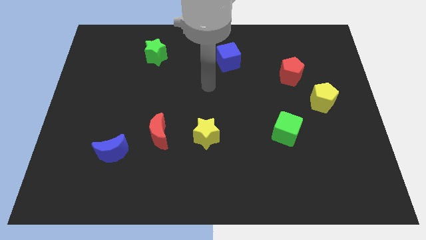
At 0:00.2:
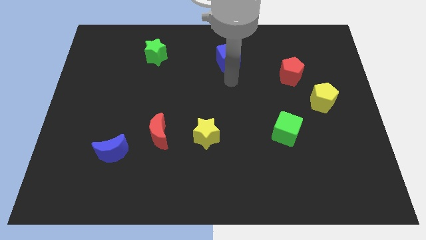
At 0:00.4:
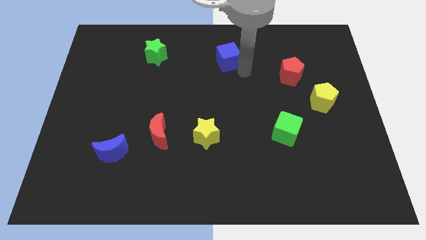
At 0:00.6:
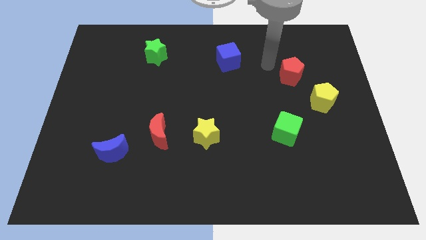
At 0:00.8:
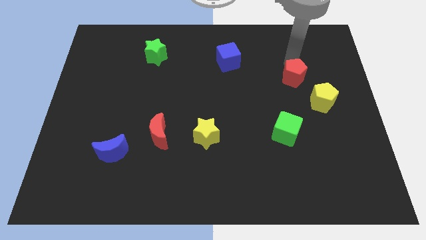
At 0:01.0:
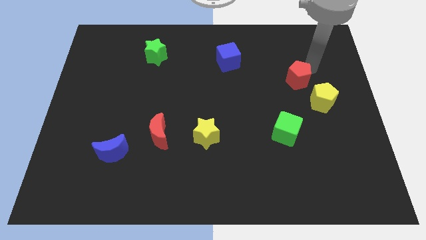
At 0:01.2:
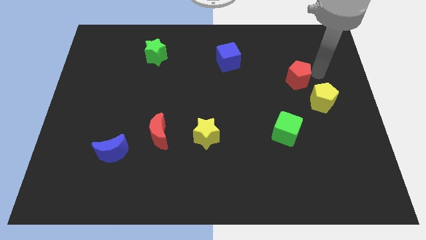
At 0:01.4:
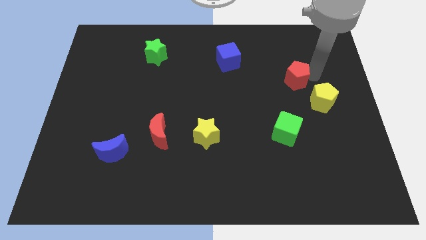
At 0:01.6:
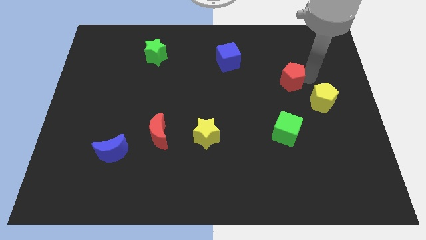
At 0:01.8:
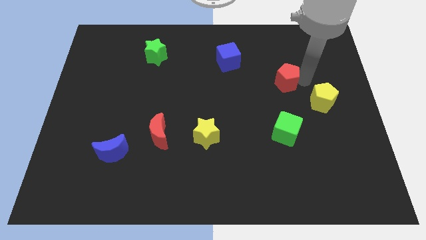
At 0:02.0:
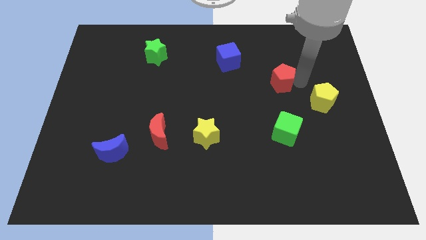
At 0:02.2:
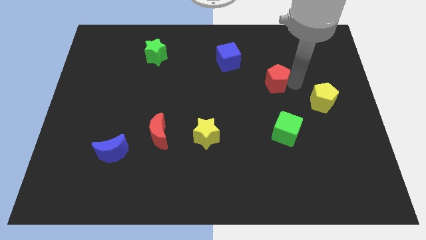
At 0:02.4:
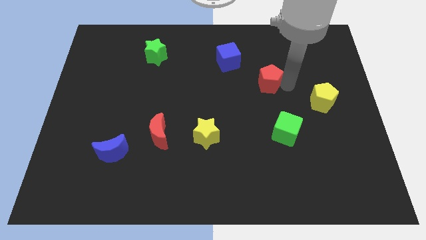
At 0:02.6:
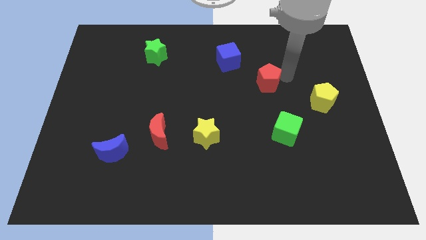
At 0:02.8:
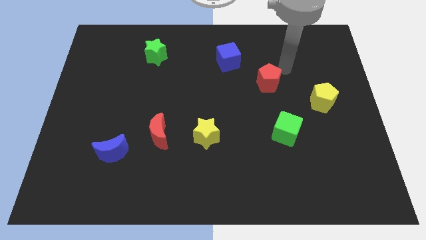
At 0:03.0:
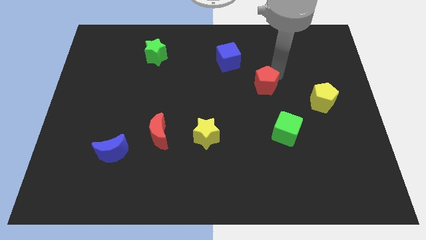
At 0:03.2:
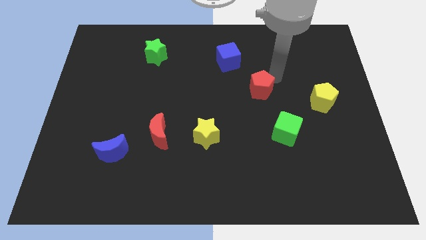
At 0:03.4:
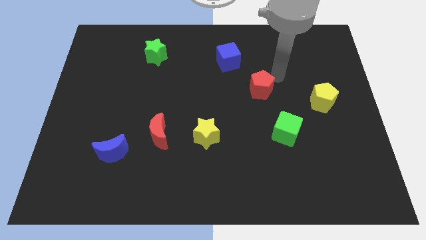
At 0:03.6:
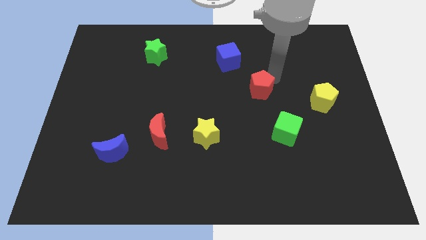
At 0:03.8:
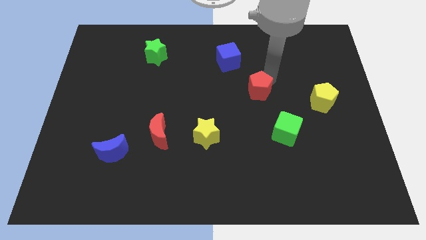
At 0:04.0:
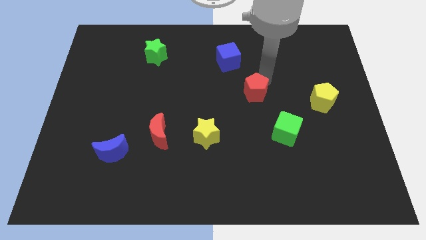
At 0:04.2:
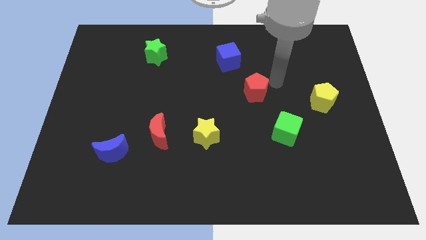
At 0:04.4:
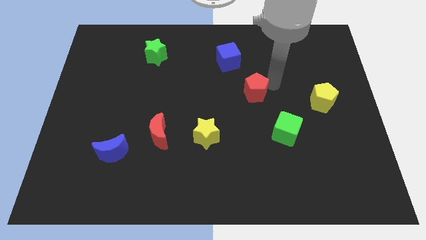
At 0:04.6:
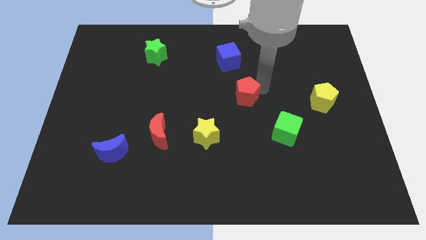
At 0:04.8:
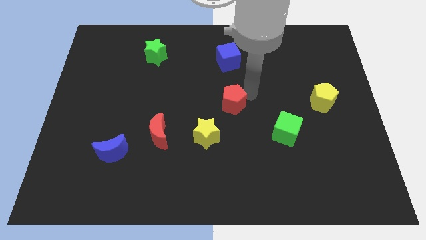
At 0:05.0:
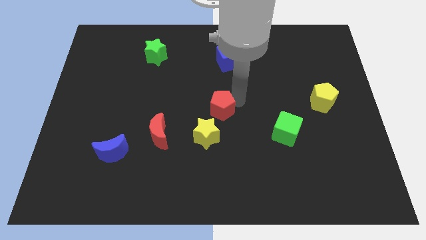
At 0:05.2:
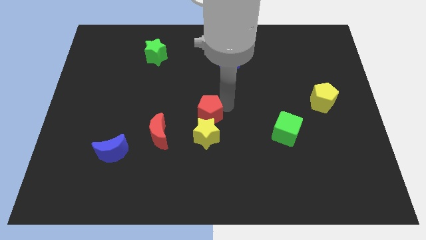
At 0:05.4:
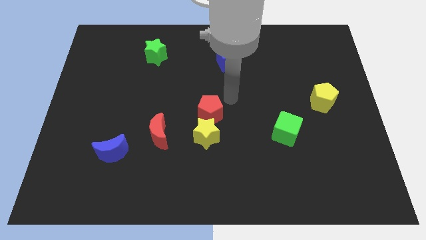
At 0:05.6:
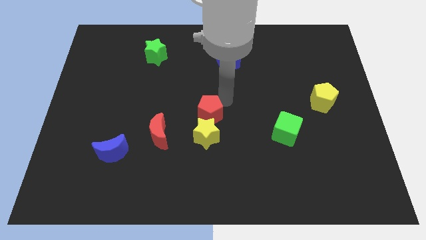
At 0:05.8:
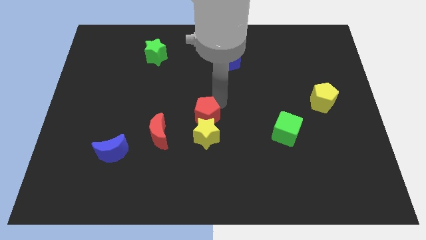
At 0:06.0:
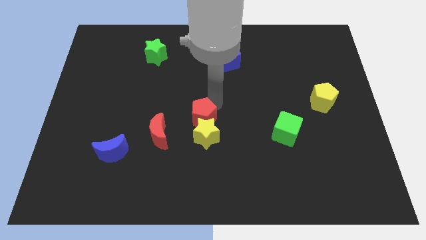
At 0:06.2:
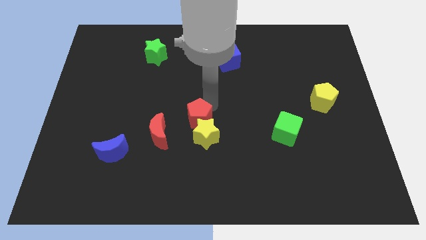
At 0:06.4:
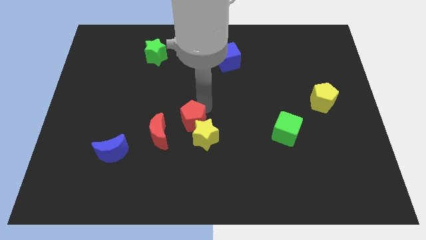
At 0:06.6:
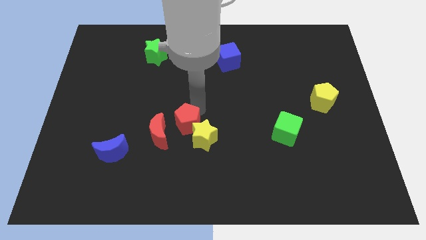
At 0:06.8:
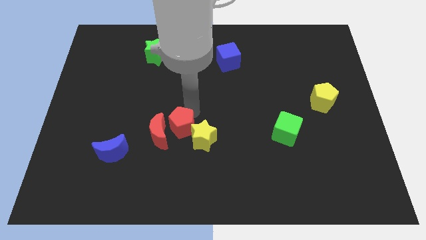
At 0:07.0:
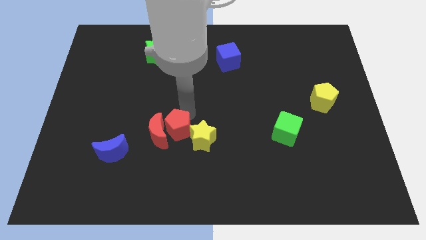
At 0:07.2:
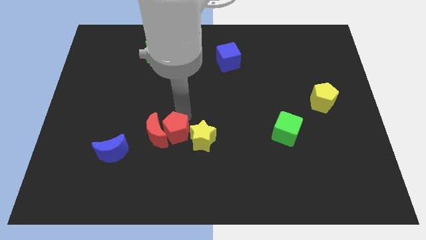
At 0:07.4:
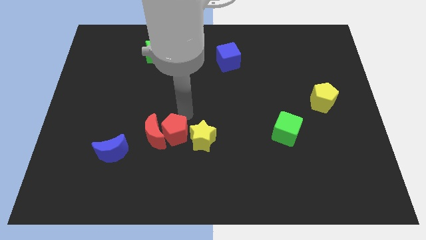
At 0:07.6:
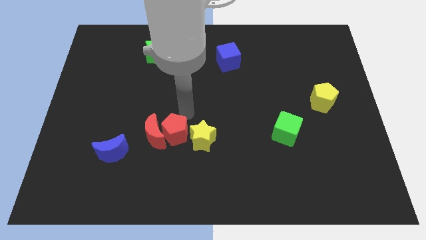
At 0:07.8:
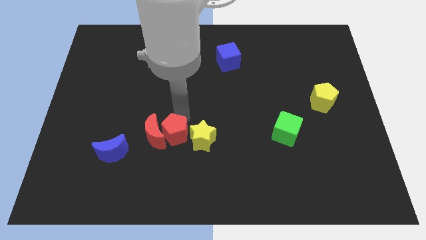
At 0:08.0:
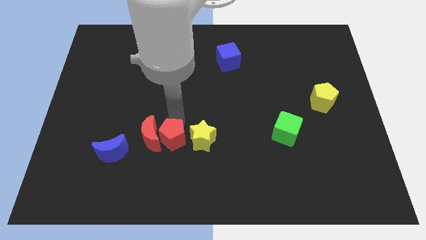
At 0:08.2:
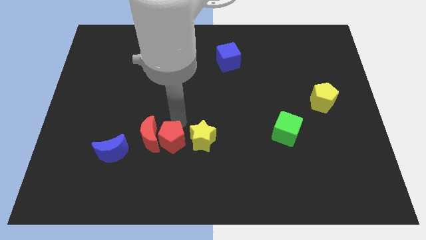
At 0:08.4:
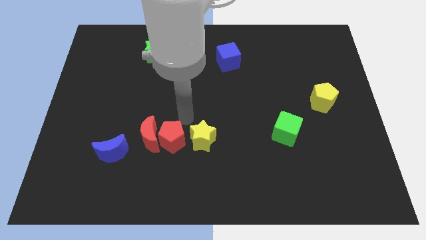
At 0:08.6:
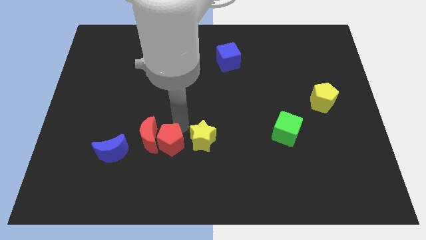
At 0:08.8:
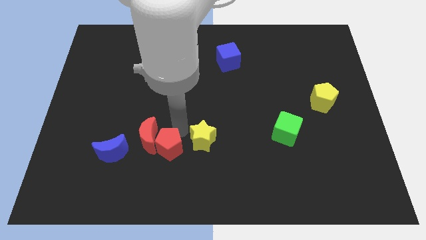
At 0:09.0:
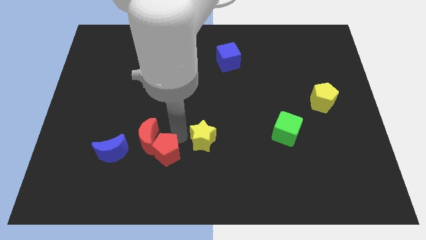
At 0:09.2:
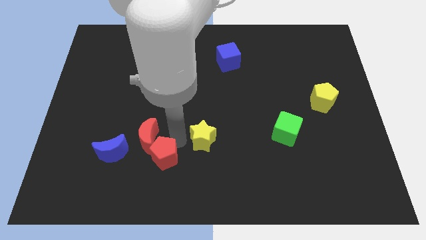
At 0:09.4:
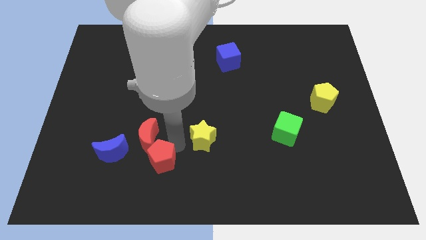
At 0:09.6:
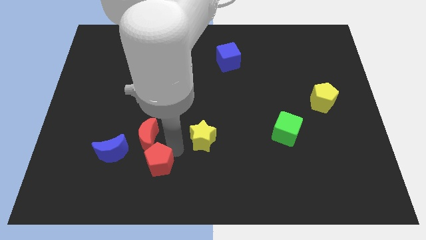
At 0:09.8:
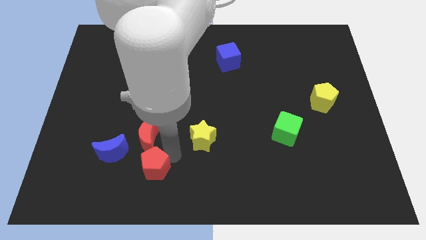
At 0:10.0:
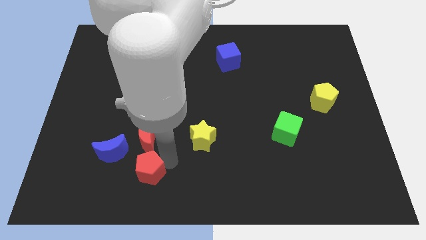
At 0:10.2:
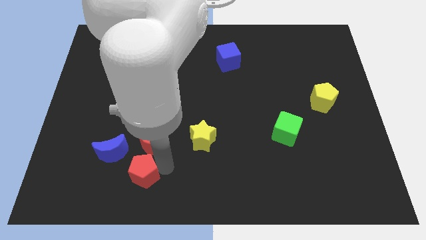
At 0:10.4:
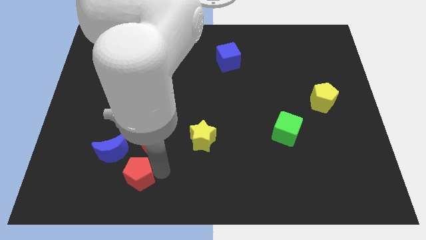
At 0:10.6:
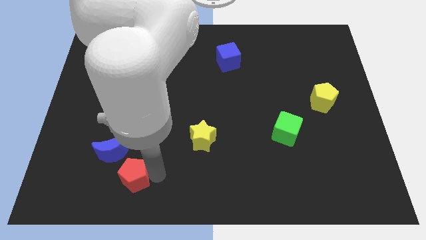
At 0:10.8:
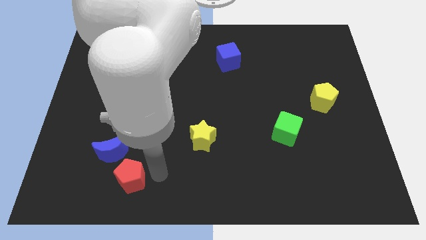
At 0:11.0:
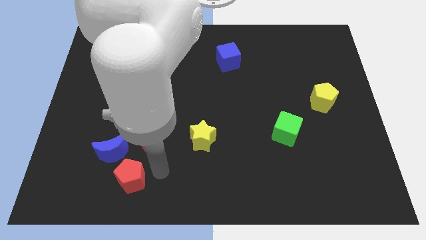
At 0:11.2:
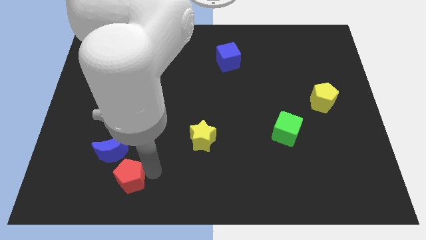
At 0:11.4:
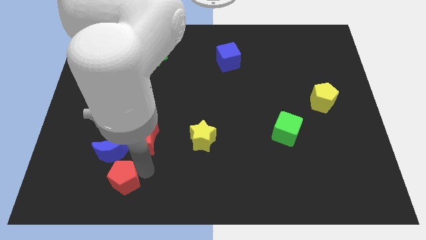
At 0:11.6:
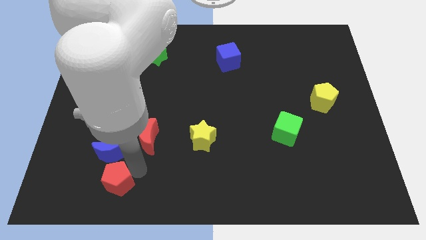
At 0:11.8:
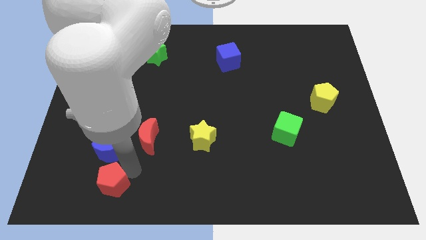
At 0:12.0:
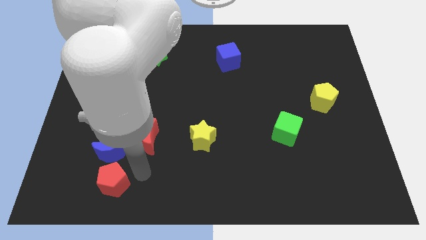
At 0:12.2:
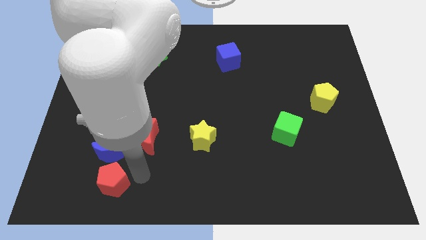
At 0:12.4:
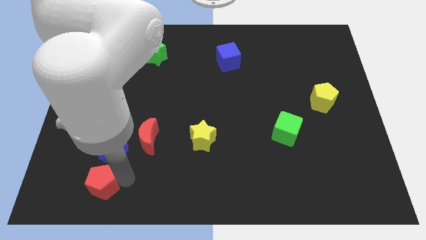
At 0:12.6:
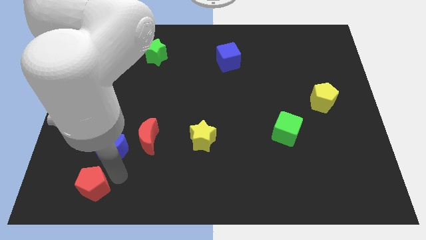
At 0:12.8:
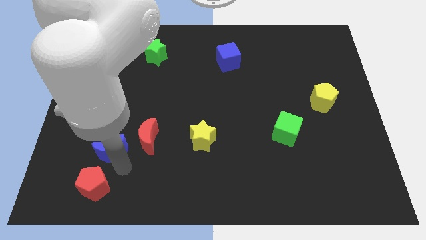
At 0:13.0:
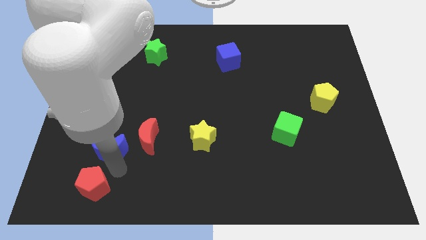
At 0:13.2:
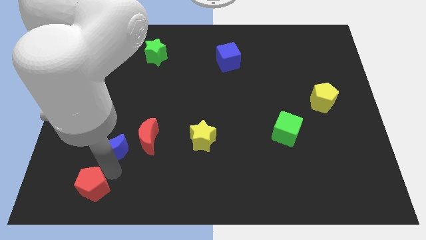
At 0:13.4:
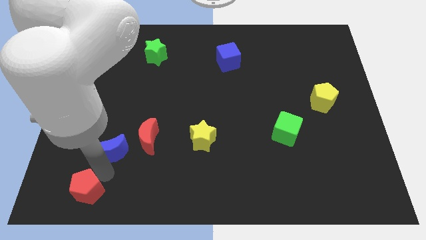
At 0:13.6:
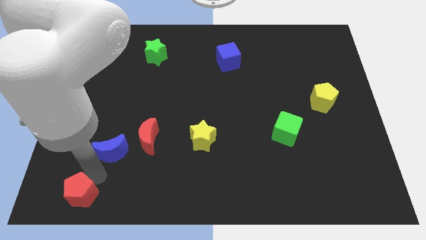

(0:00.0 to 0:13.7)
slide the red pentagon to the lower left corner
